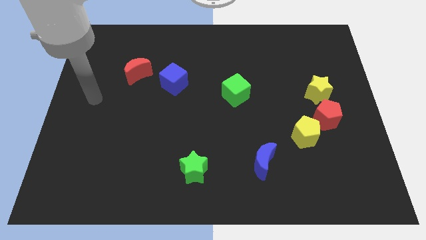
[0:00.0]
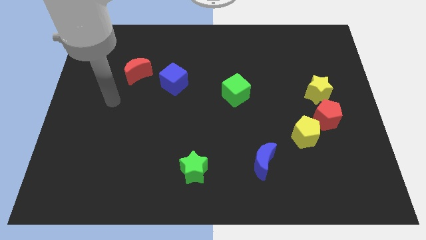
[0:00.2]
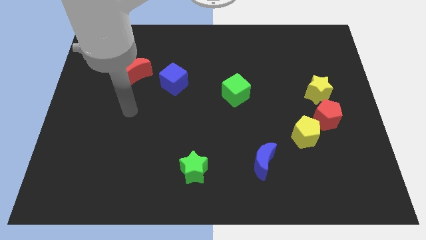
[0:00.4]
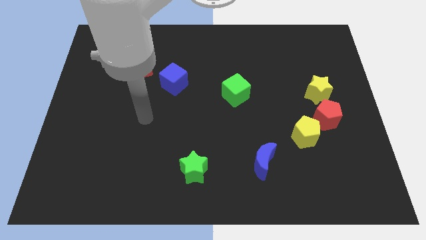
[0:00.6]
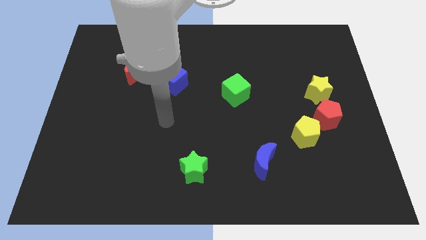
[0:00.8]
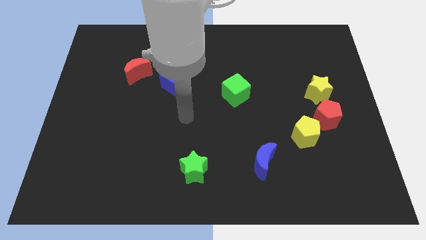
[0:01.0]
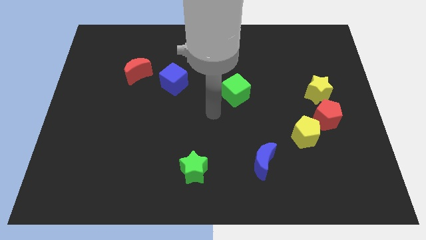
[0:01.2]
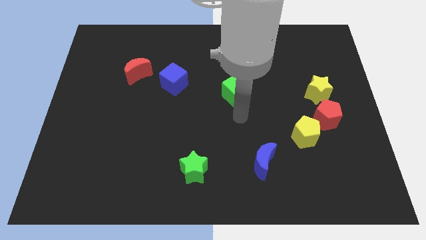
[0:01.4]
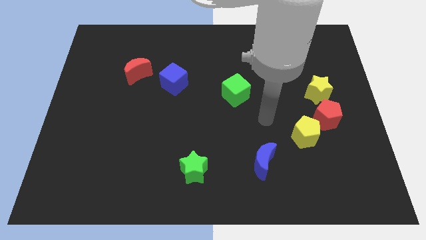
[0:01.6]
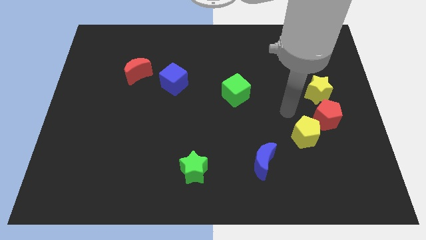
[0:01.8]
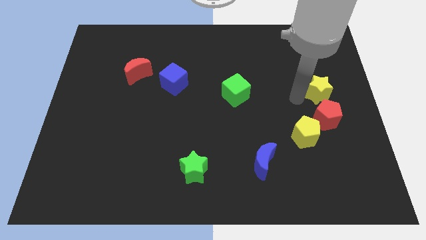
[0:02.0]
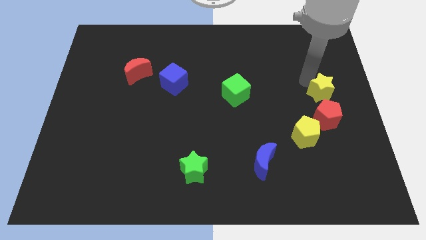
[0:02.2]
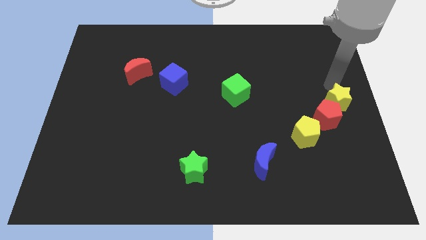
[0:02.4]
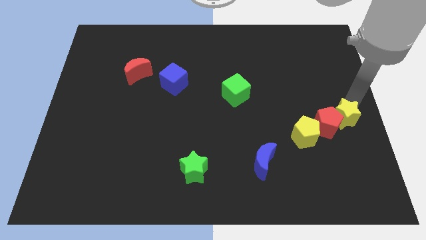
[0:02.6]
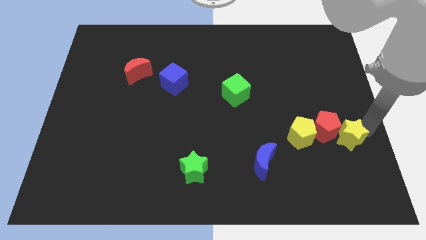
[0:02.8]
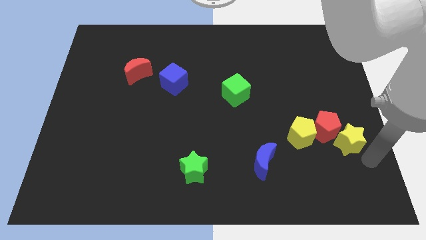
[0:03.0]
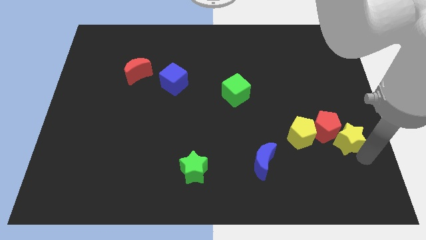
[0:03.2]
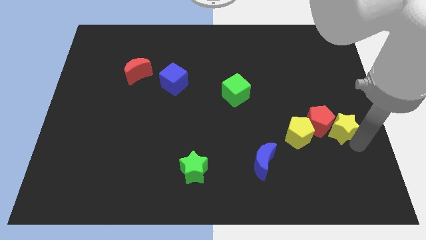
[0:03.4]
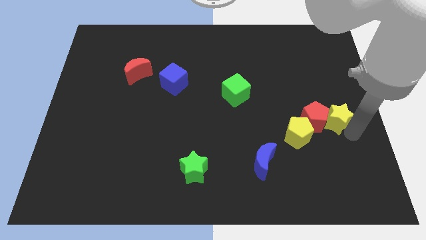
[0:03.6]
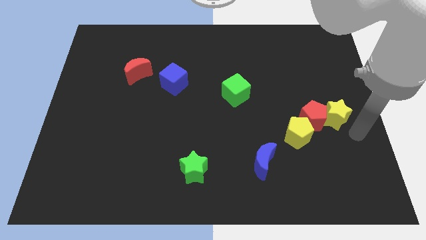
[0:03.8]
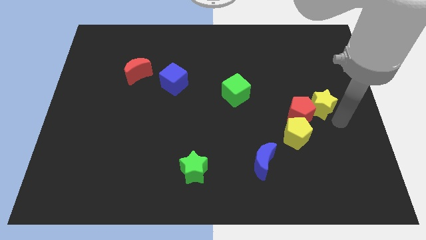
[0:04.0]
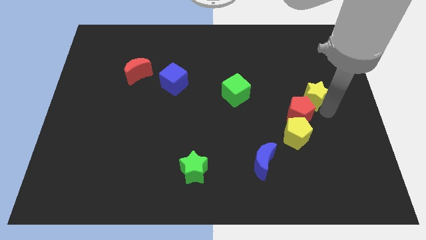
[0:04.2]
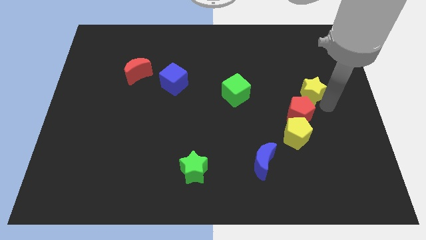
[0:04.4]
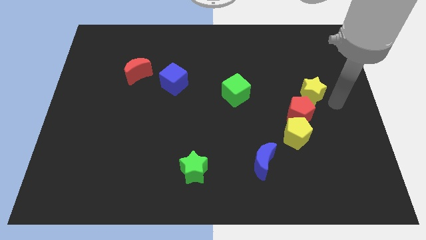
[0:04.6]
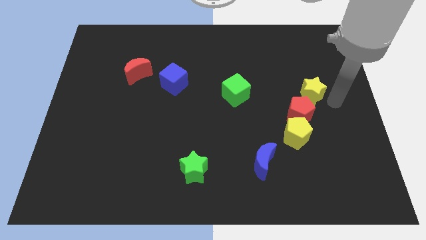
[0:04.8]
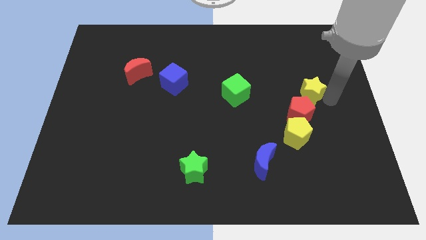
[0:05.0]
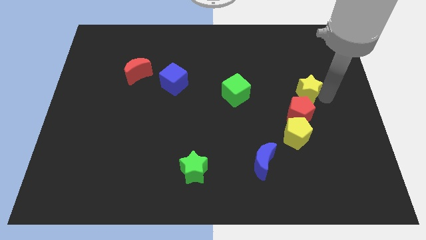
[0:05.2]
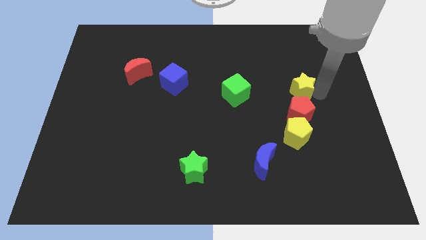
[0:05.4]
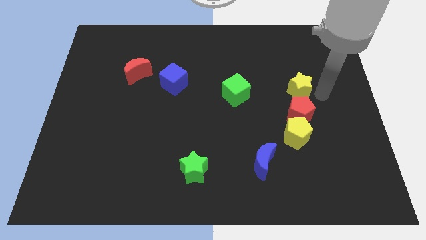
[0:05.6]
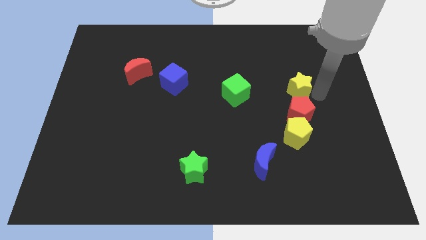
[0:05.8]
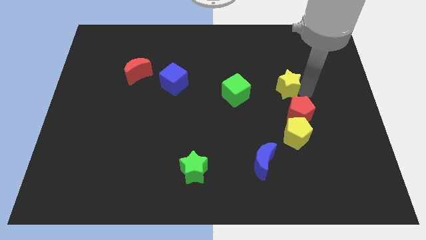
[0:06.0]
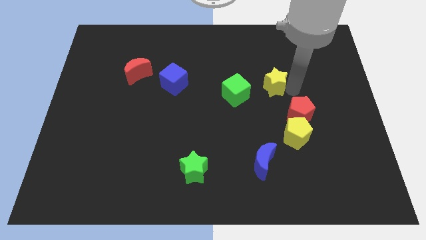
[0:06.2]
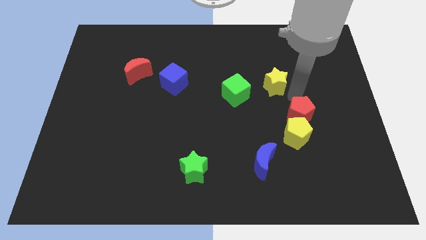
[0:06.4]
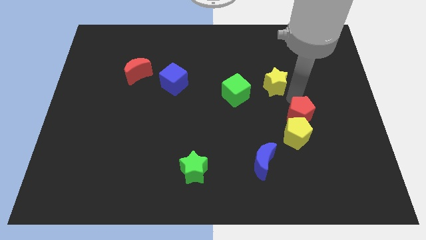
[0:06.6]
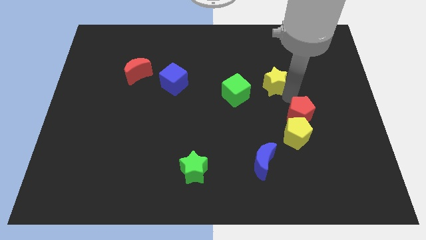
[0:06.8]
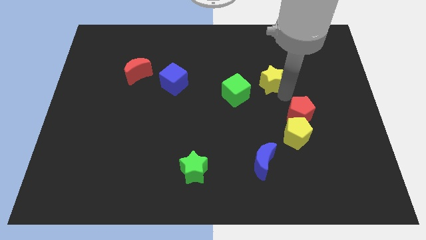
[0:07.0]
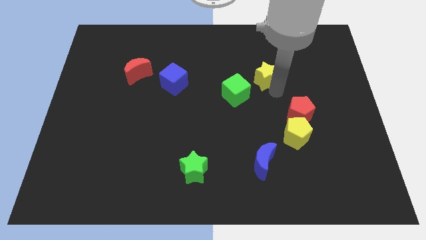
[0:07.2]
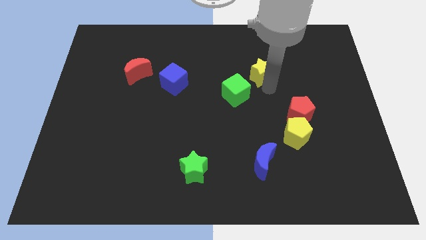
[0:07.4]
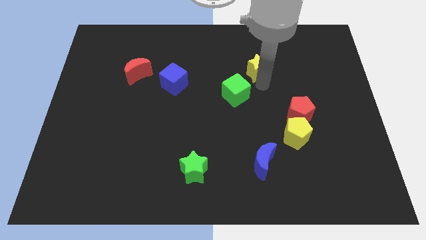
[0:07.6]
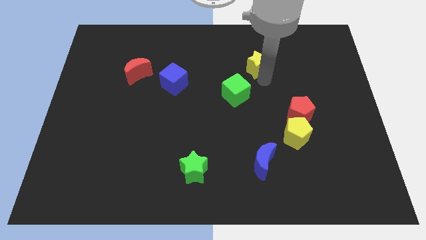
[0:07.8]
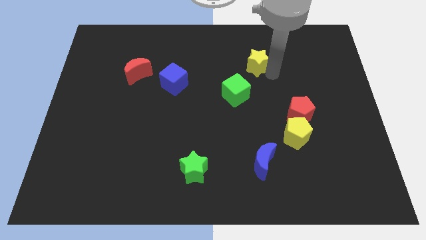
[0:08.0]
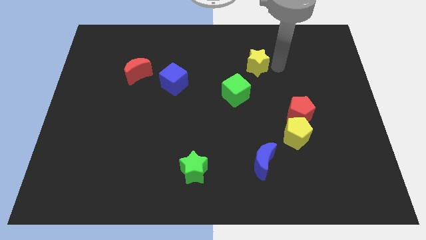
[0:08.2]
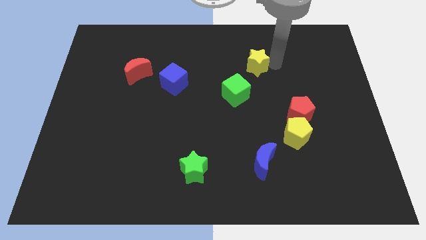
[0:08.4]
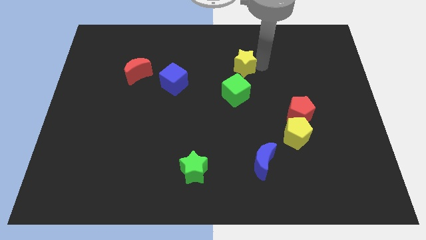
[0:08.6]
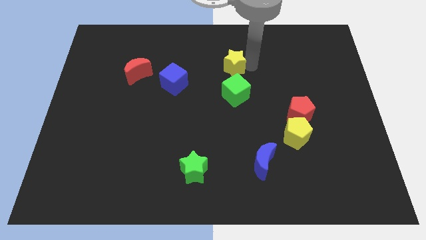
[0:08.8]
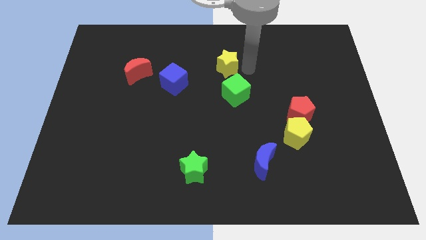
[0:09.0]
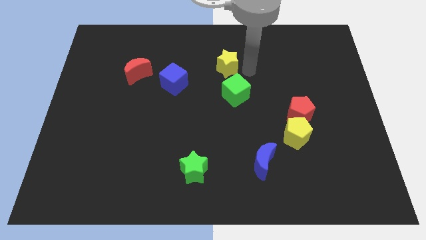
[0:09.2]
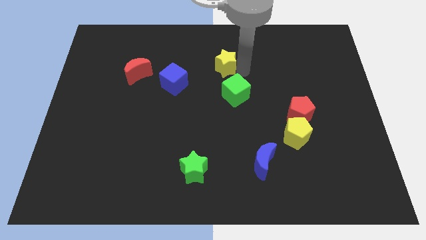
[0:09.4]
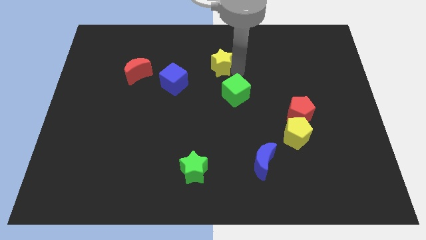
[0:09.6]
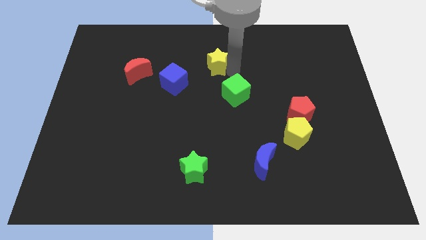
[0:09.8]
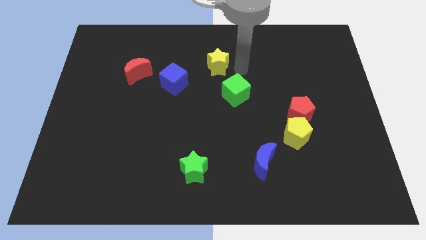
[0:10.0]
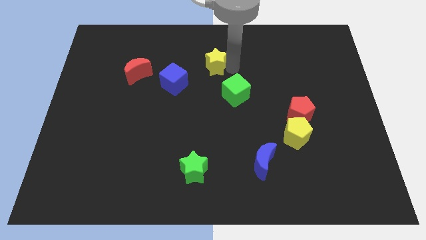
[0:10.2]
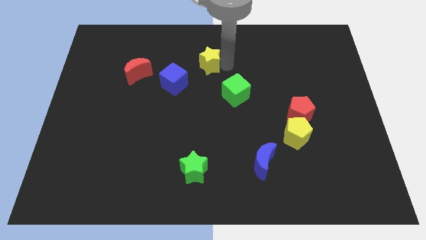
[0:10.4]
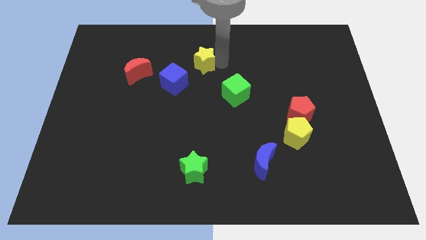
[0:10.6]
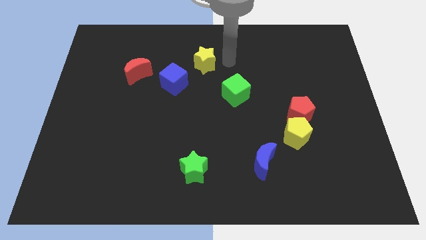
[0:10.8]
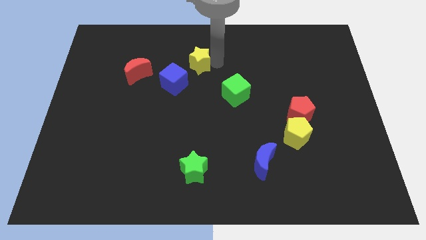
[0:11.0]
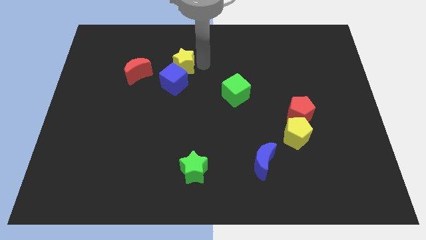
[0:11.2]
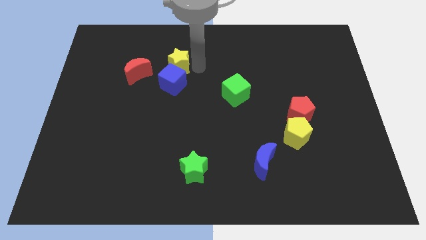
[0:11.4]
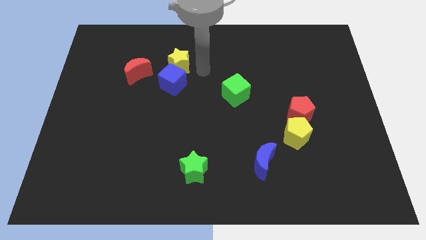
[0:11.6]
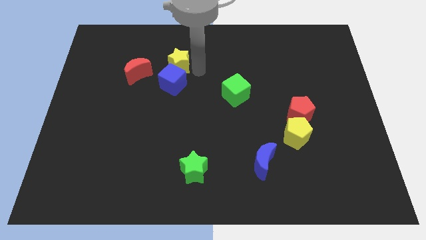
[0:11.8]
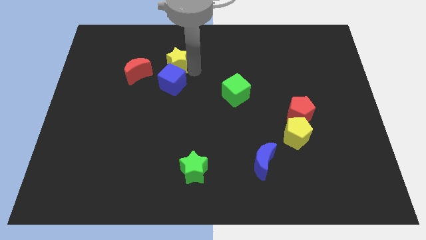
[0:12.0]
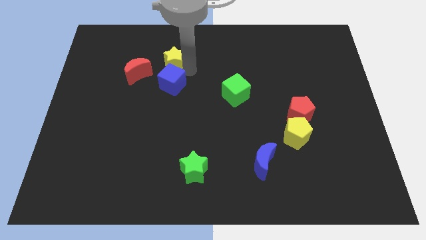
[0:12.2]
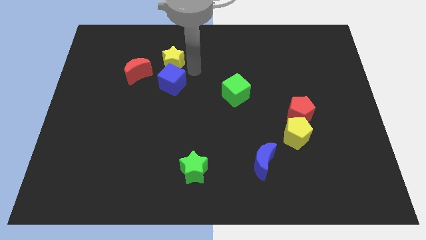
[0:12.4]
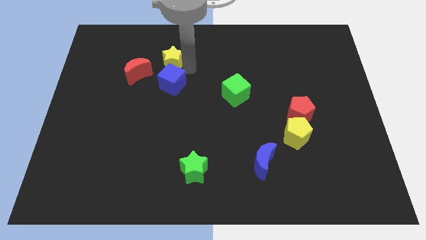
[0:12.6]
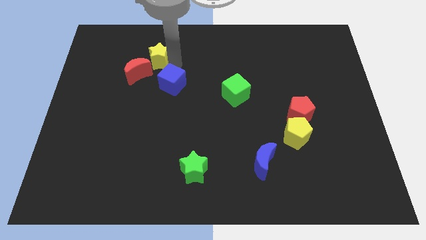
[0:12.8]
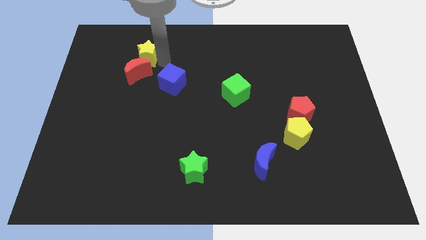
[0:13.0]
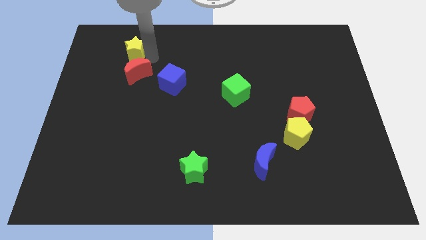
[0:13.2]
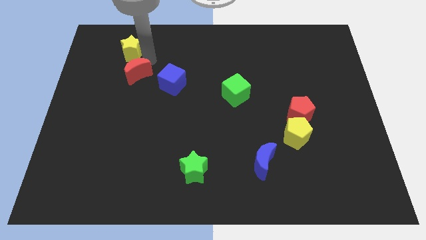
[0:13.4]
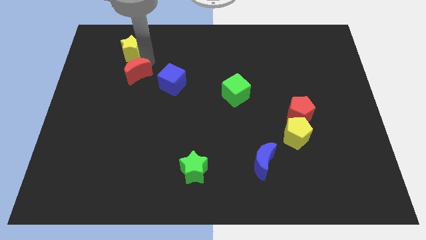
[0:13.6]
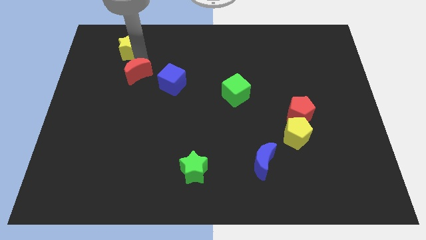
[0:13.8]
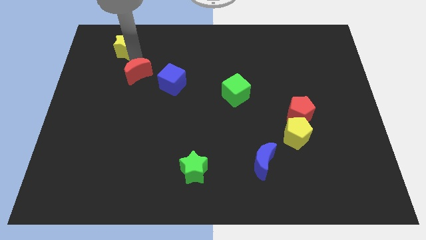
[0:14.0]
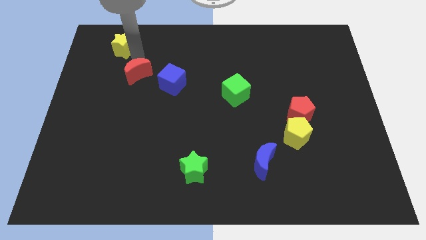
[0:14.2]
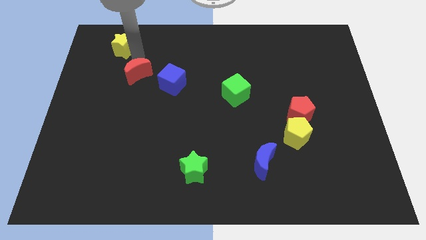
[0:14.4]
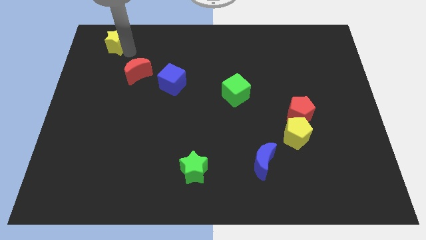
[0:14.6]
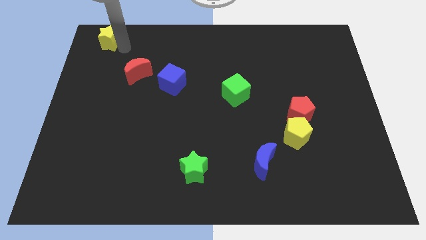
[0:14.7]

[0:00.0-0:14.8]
push the yellow star to the top left
